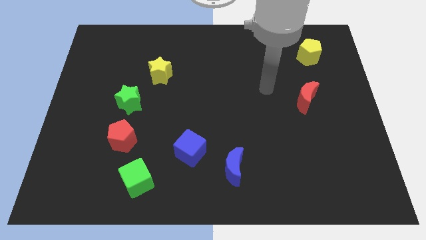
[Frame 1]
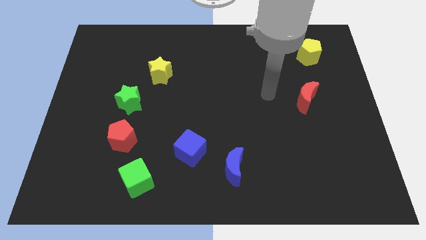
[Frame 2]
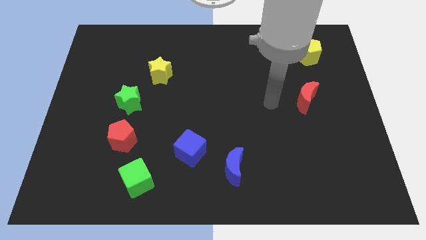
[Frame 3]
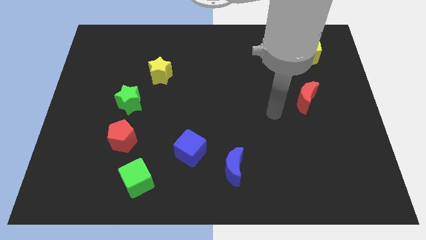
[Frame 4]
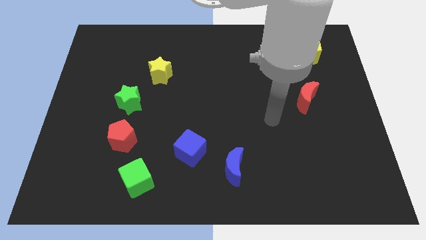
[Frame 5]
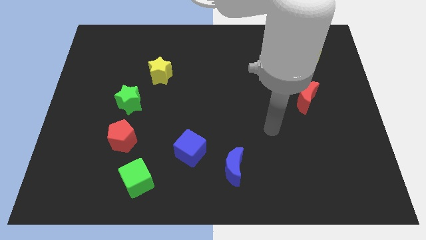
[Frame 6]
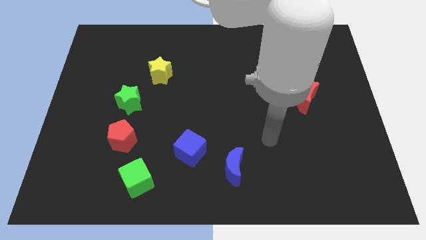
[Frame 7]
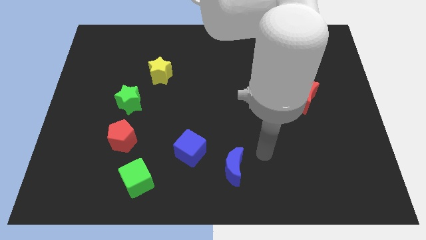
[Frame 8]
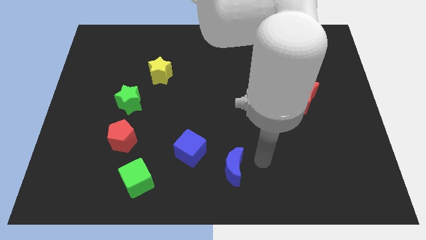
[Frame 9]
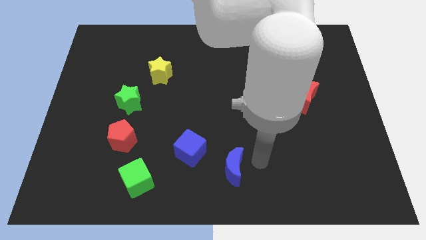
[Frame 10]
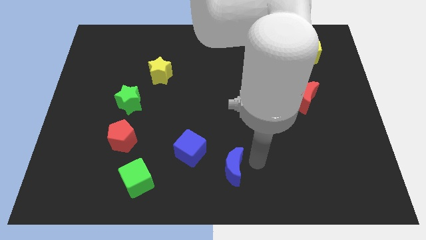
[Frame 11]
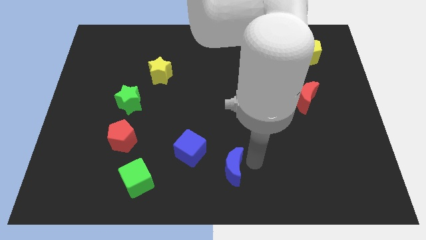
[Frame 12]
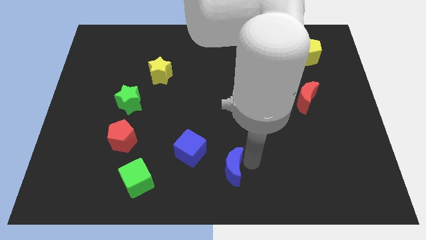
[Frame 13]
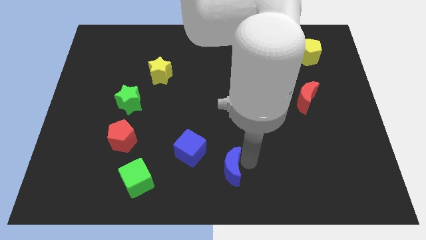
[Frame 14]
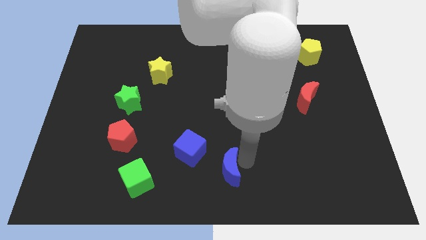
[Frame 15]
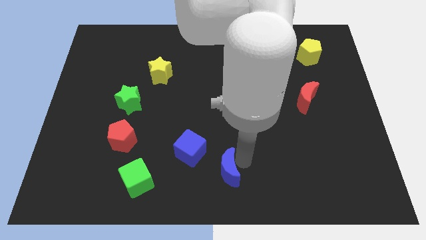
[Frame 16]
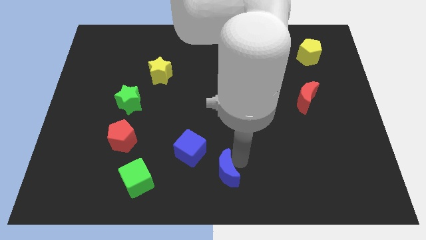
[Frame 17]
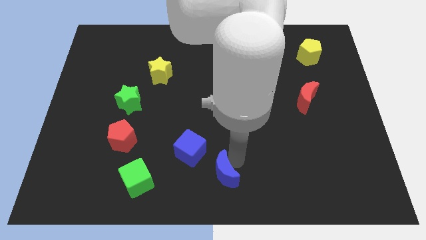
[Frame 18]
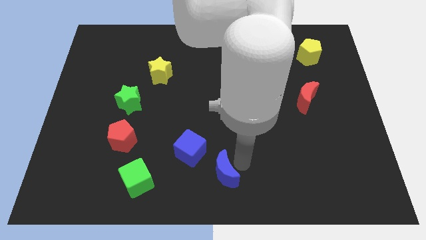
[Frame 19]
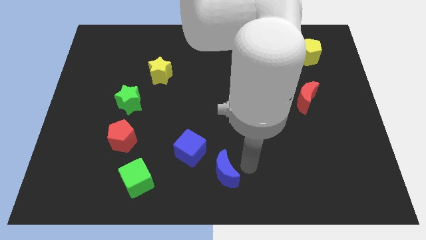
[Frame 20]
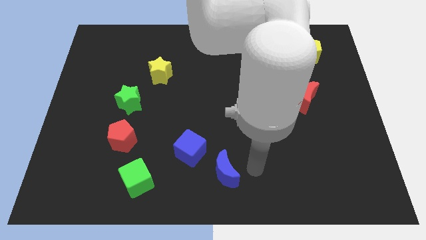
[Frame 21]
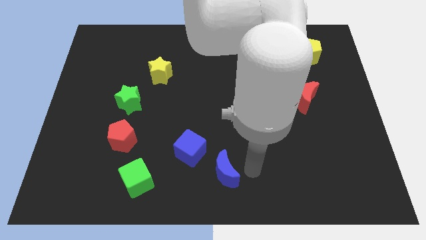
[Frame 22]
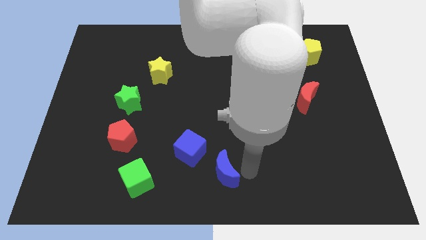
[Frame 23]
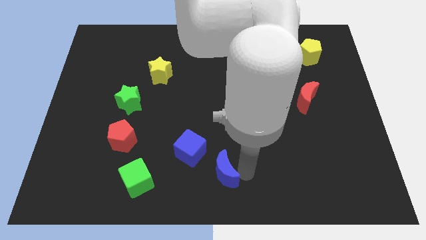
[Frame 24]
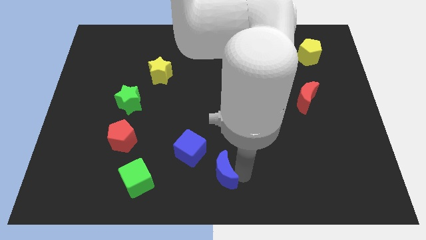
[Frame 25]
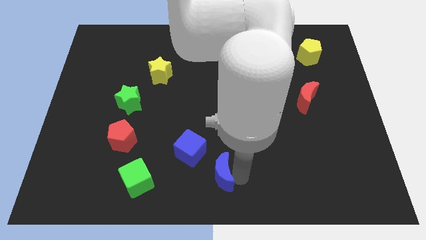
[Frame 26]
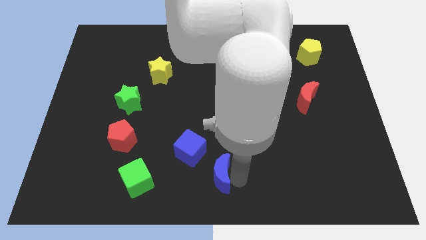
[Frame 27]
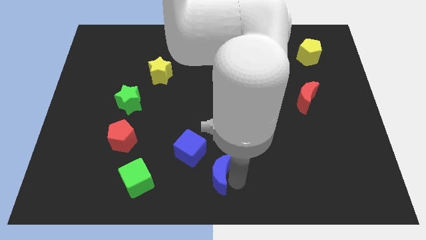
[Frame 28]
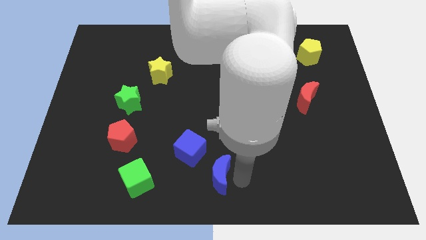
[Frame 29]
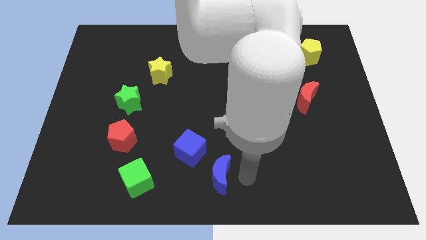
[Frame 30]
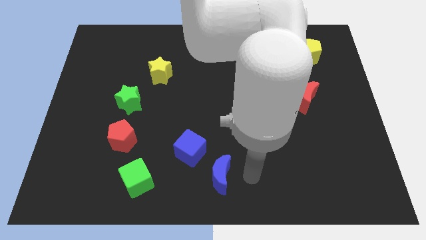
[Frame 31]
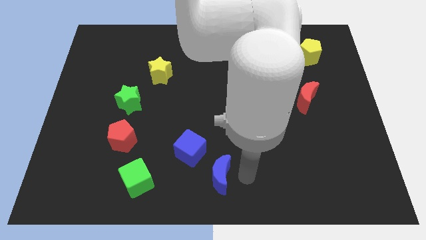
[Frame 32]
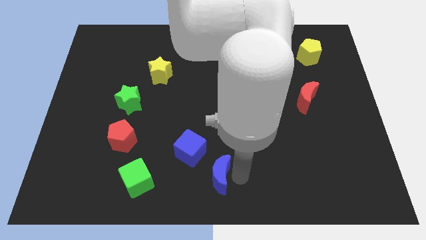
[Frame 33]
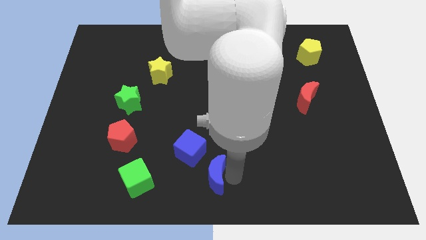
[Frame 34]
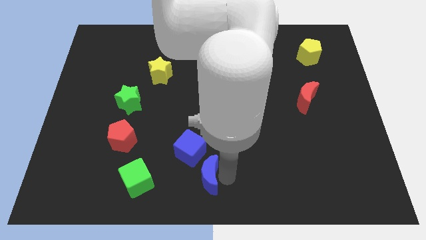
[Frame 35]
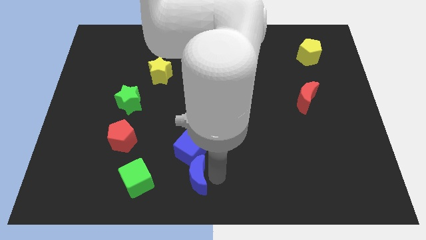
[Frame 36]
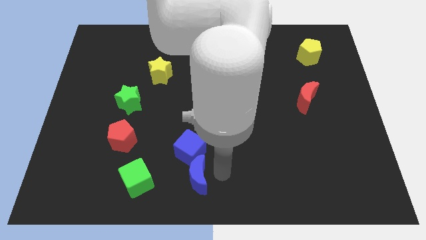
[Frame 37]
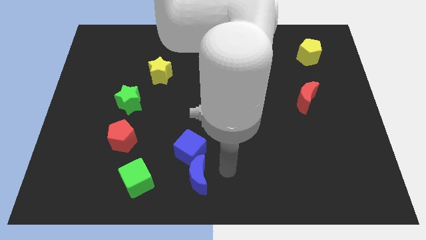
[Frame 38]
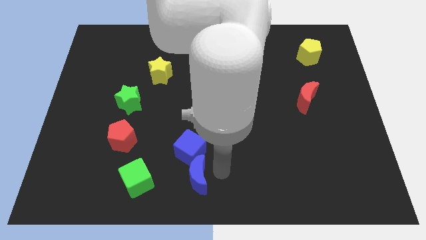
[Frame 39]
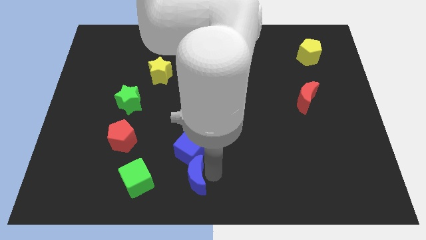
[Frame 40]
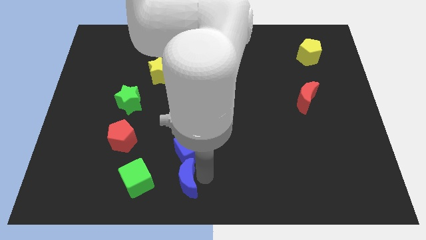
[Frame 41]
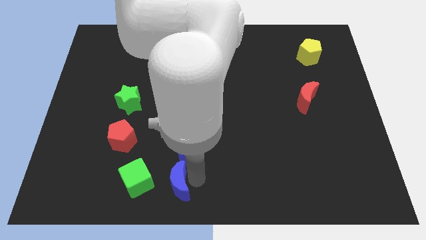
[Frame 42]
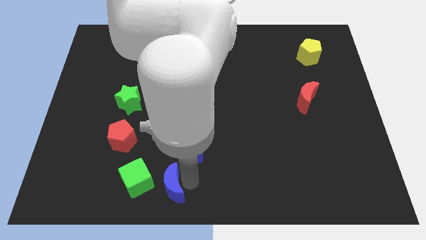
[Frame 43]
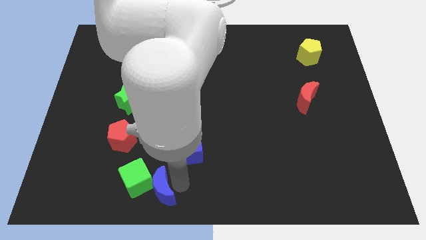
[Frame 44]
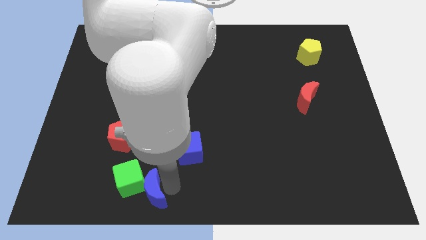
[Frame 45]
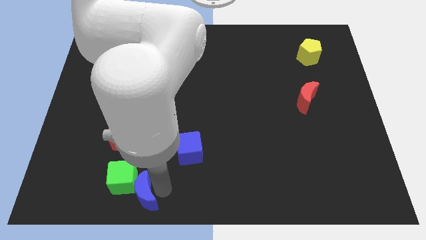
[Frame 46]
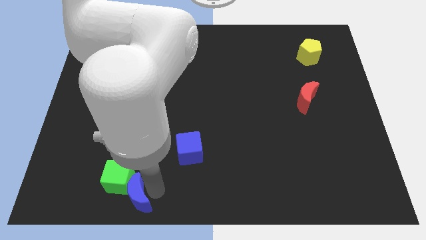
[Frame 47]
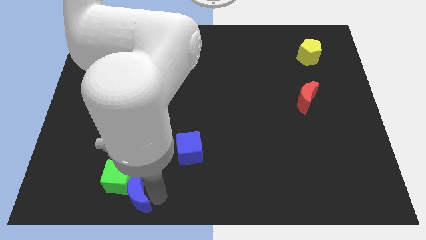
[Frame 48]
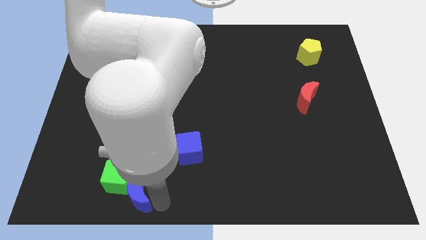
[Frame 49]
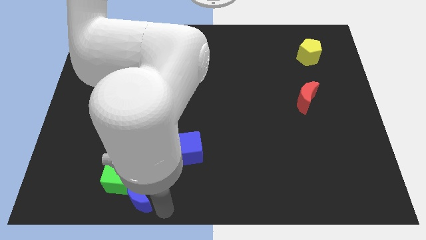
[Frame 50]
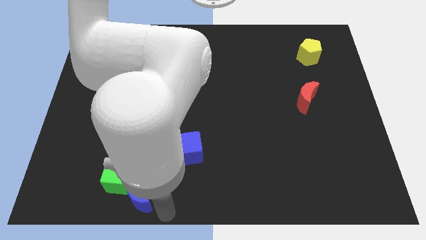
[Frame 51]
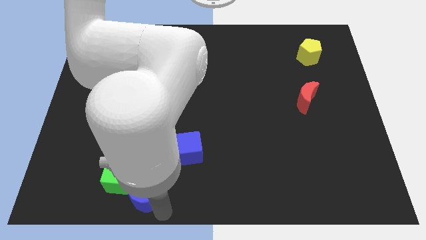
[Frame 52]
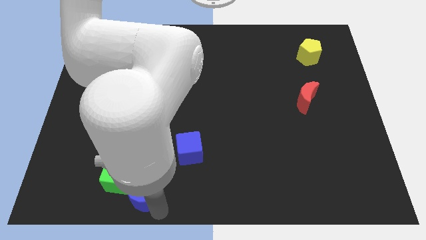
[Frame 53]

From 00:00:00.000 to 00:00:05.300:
move the blue moon to the bottom side of the red pentagon

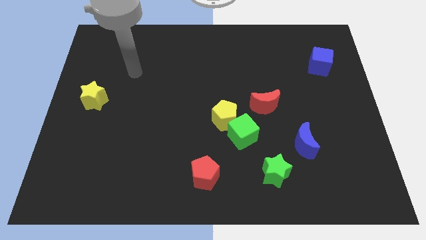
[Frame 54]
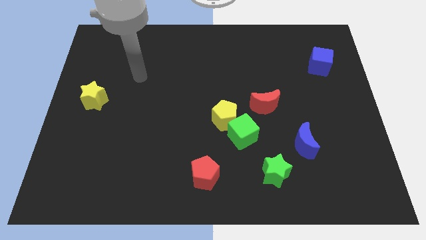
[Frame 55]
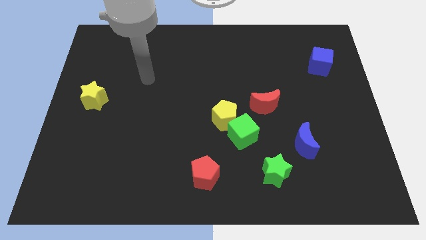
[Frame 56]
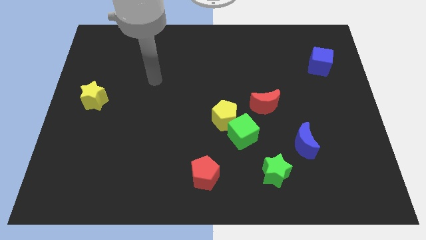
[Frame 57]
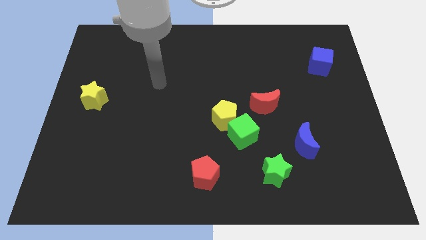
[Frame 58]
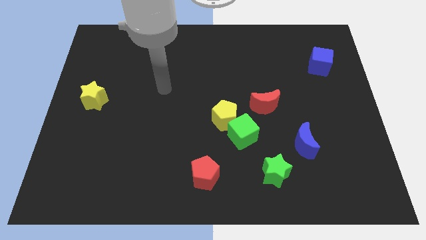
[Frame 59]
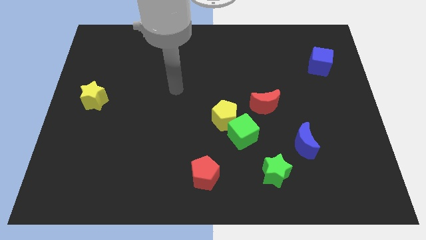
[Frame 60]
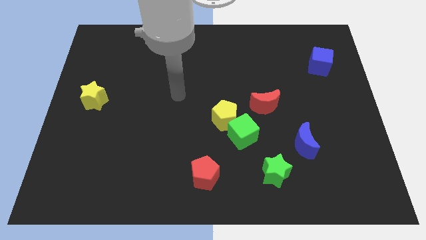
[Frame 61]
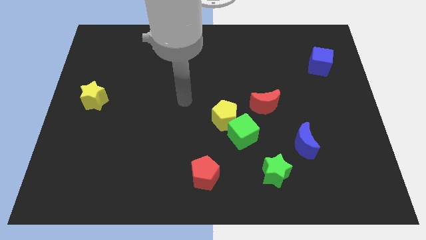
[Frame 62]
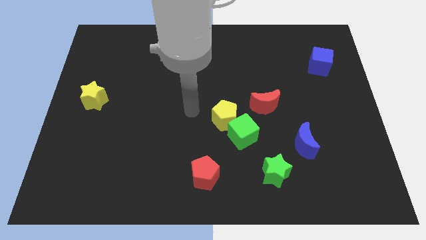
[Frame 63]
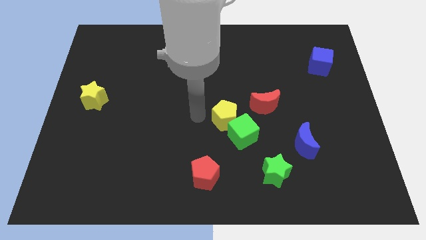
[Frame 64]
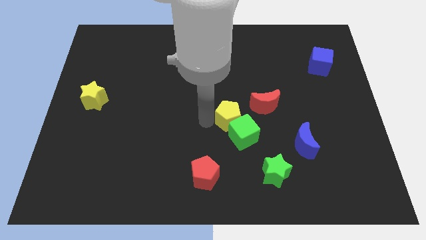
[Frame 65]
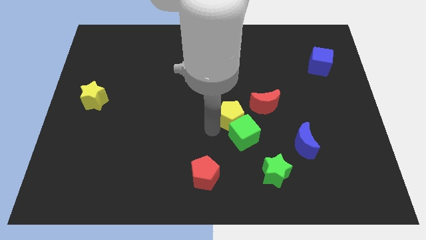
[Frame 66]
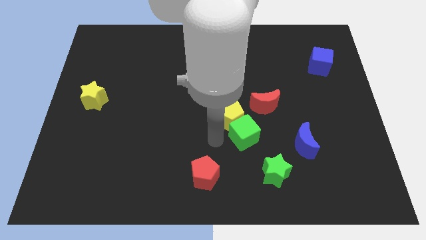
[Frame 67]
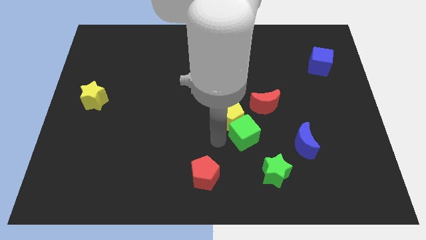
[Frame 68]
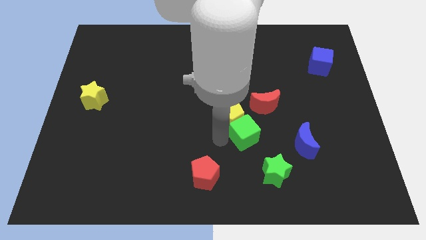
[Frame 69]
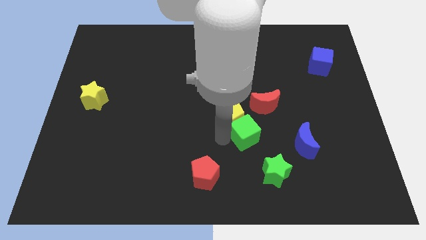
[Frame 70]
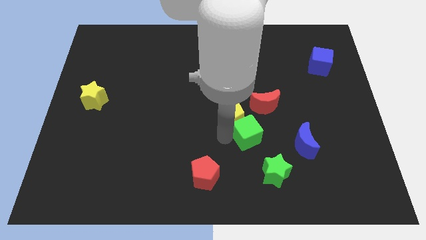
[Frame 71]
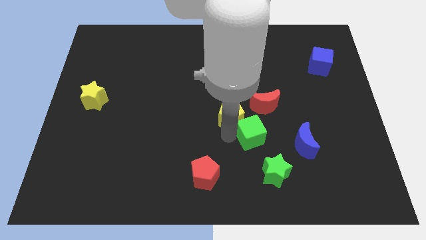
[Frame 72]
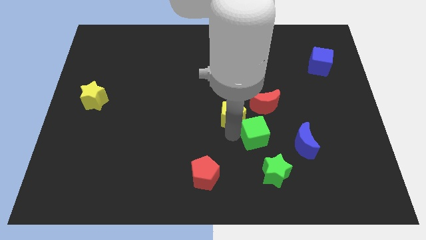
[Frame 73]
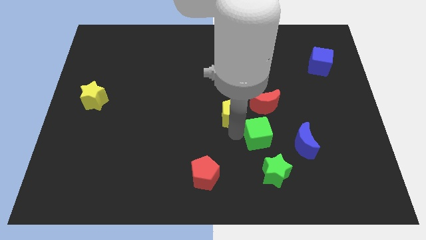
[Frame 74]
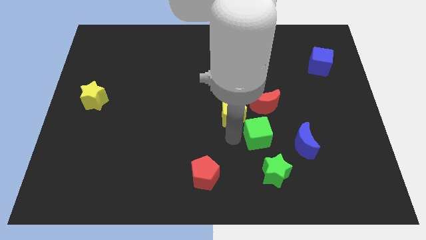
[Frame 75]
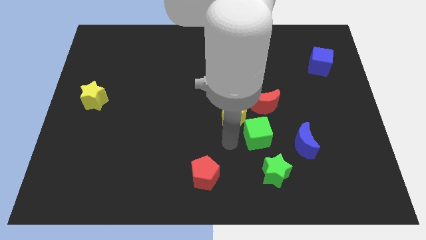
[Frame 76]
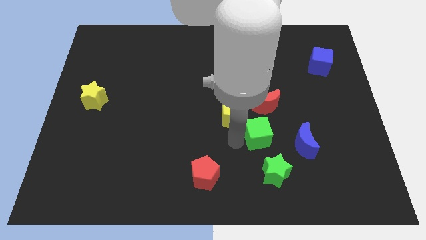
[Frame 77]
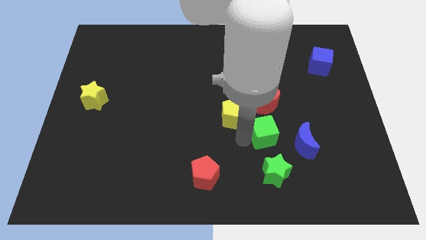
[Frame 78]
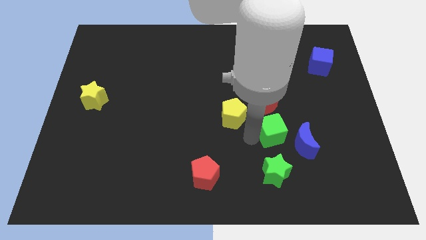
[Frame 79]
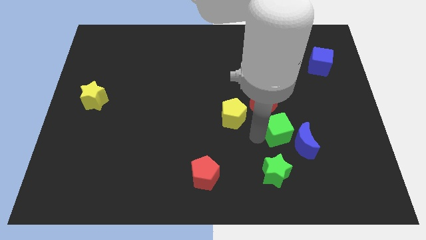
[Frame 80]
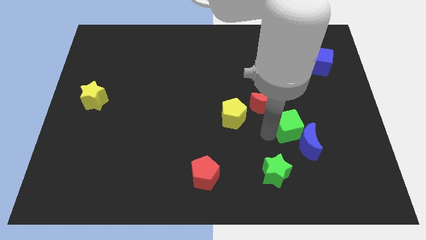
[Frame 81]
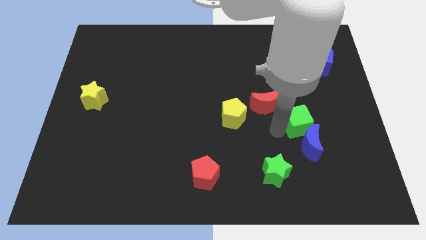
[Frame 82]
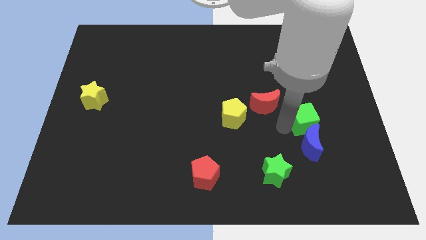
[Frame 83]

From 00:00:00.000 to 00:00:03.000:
move the green cube diagonally up and to the right of the blue moon
